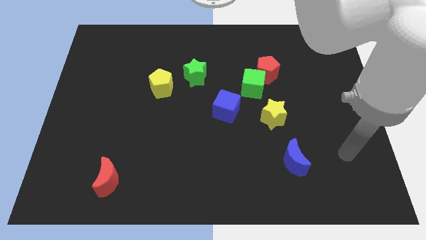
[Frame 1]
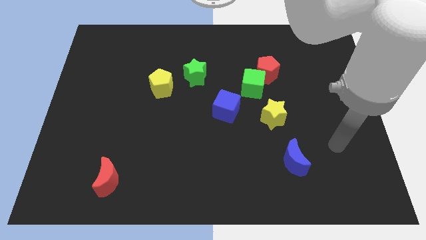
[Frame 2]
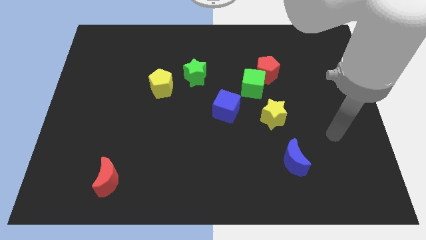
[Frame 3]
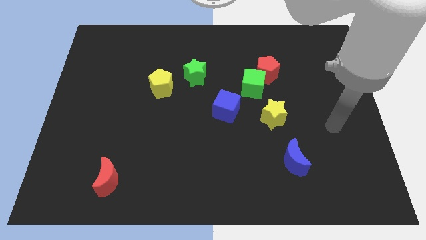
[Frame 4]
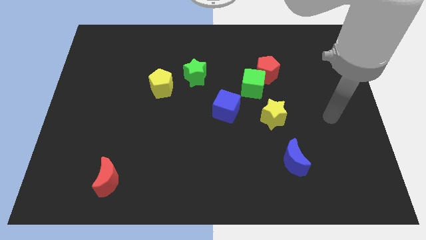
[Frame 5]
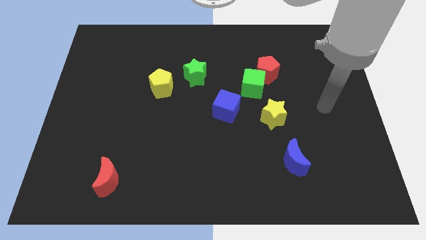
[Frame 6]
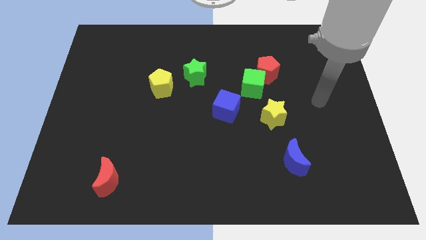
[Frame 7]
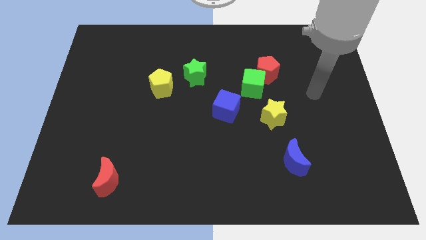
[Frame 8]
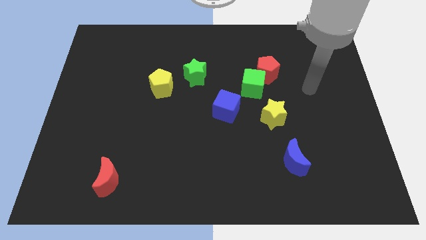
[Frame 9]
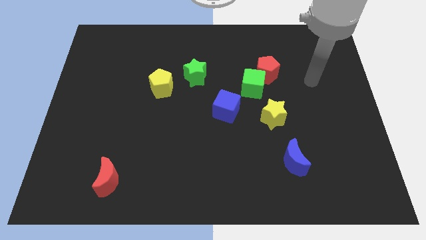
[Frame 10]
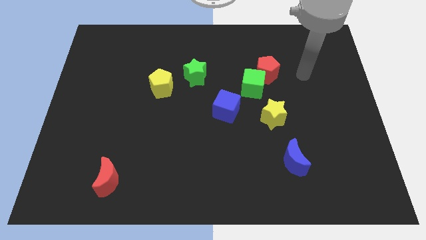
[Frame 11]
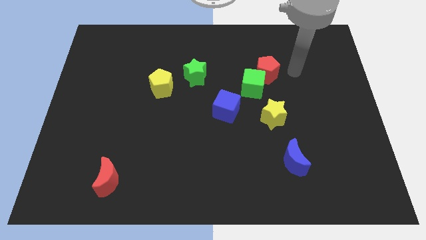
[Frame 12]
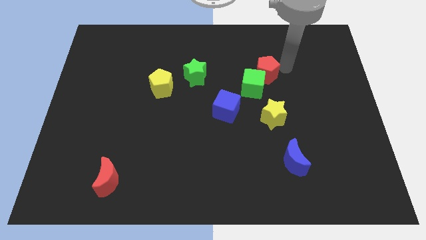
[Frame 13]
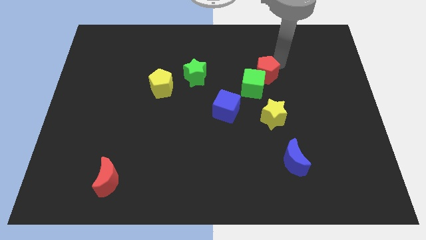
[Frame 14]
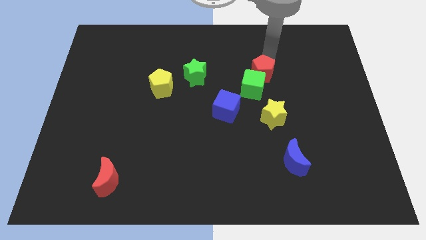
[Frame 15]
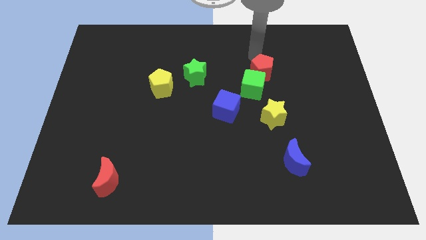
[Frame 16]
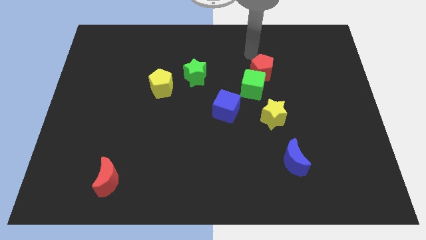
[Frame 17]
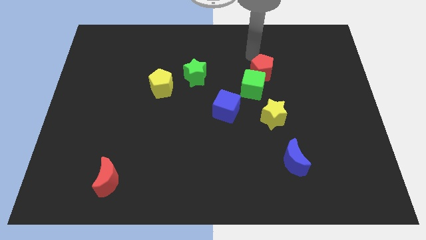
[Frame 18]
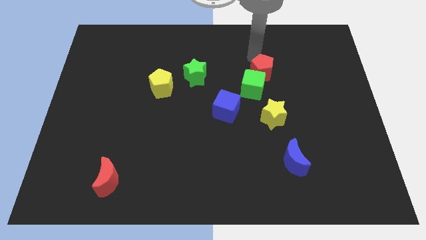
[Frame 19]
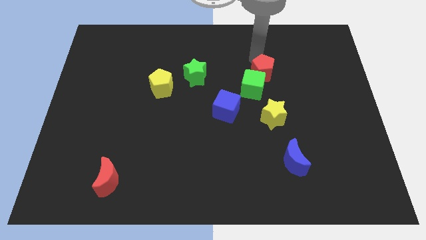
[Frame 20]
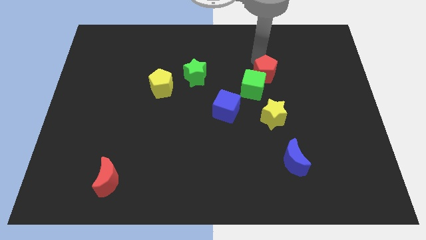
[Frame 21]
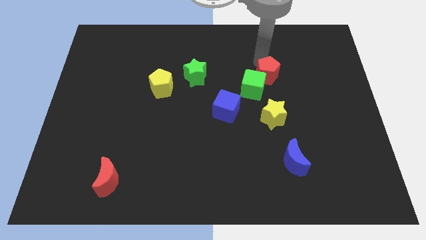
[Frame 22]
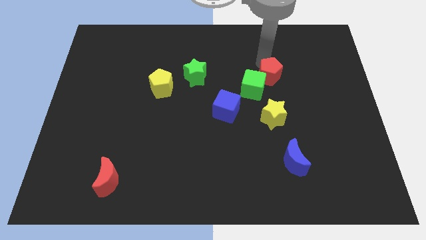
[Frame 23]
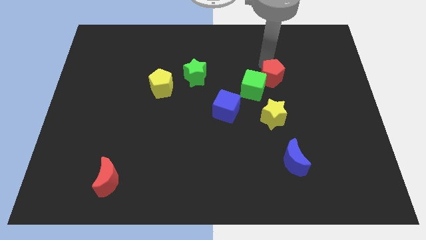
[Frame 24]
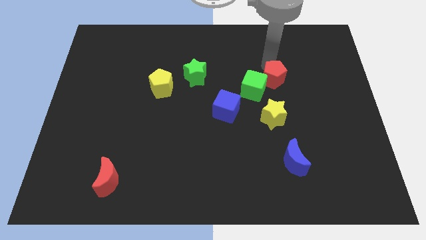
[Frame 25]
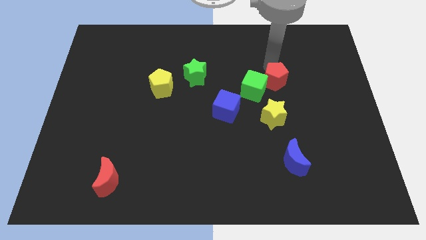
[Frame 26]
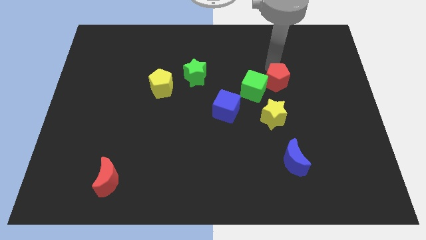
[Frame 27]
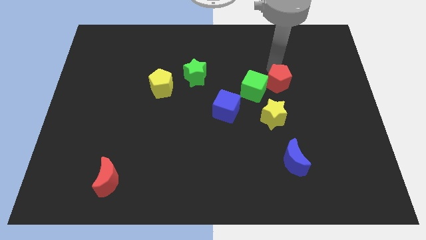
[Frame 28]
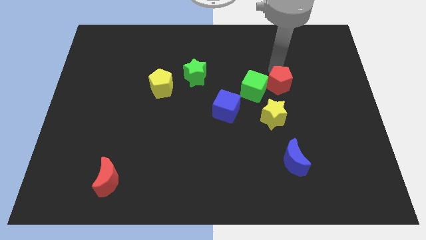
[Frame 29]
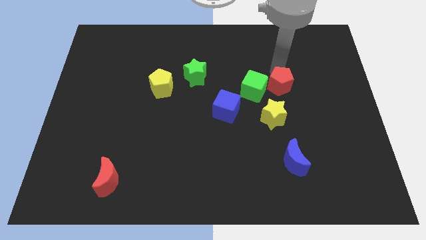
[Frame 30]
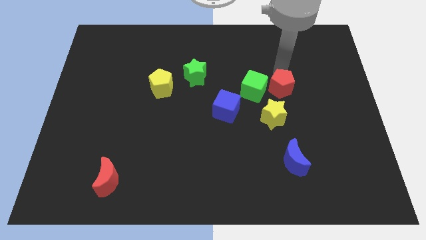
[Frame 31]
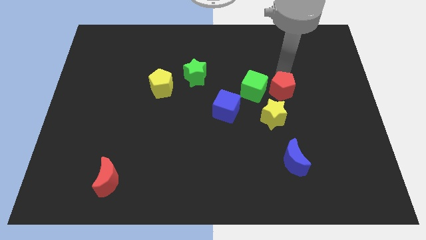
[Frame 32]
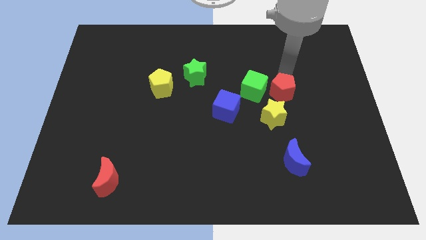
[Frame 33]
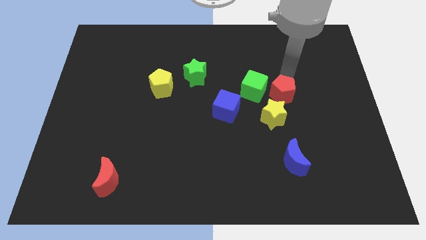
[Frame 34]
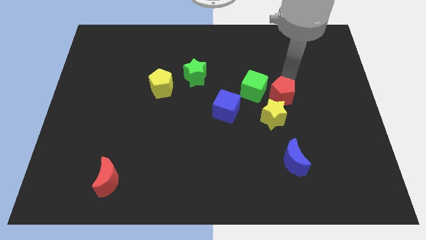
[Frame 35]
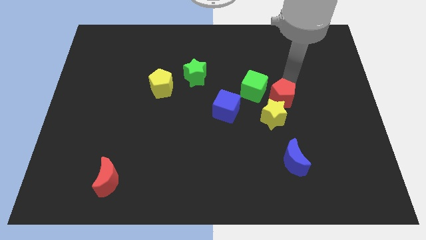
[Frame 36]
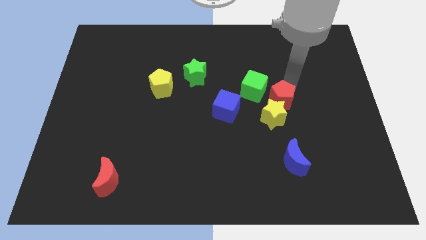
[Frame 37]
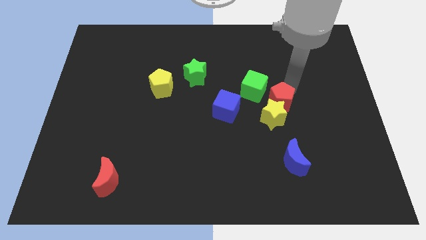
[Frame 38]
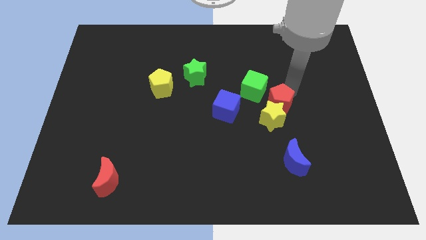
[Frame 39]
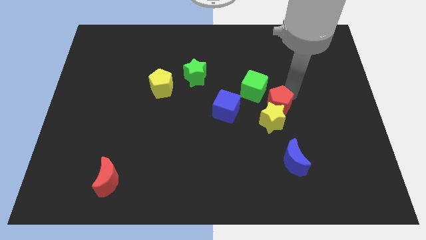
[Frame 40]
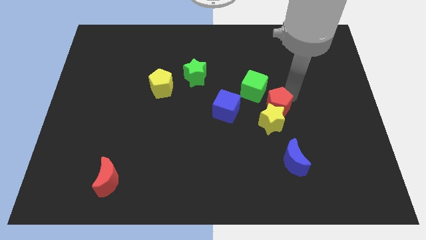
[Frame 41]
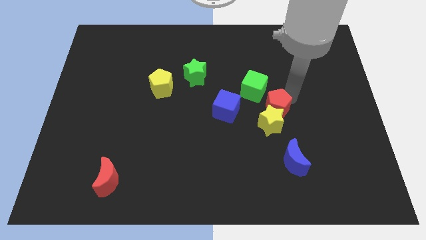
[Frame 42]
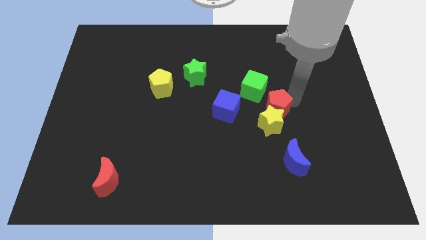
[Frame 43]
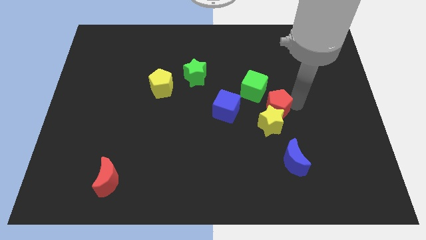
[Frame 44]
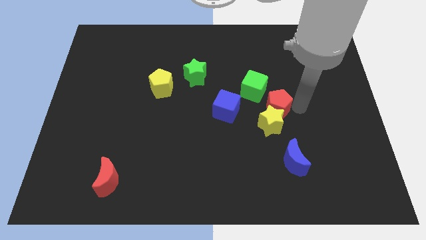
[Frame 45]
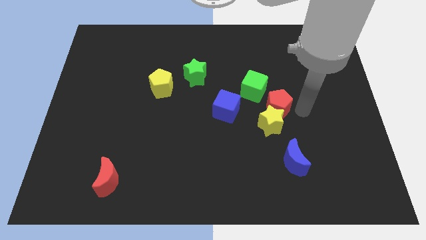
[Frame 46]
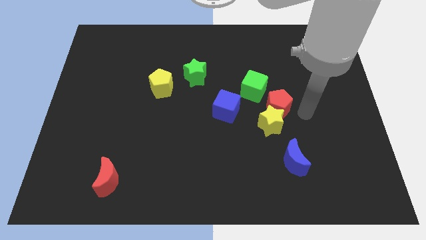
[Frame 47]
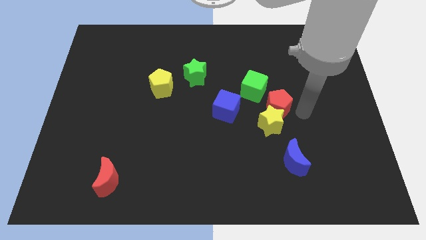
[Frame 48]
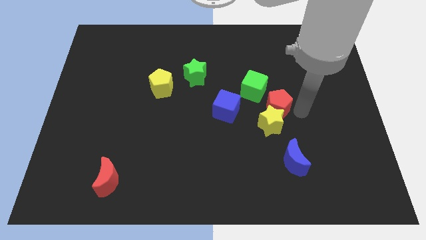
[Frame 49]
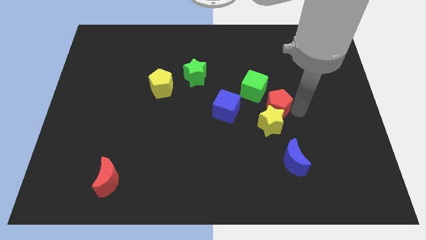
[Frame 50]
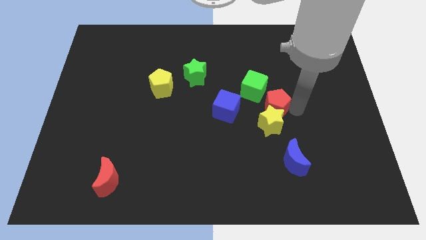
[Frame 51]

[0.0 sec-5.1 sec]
slide the red pentagon to the bottom of the green cube

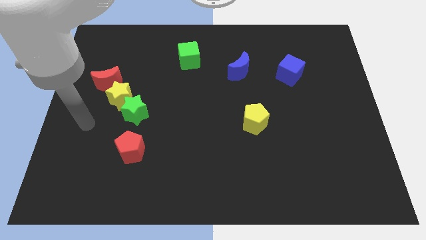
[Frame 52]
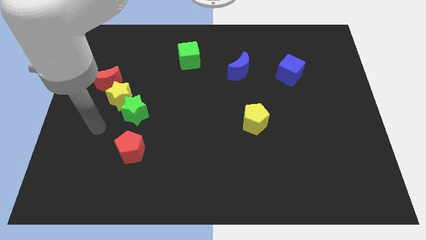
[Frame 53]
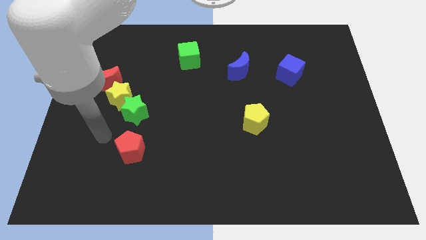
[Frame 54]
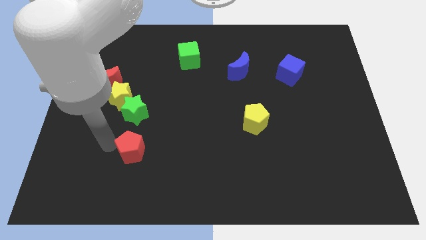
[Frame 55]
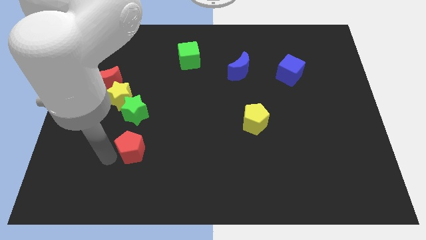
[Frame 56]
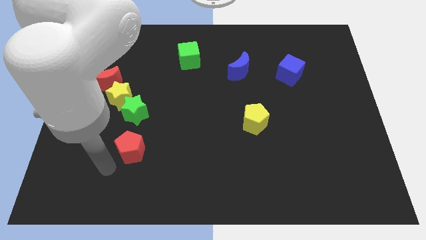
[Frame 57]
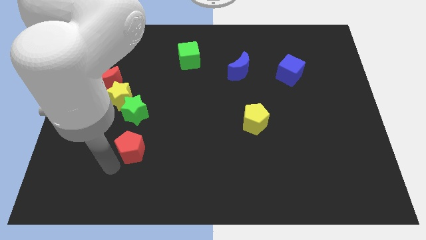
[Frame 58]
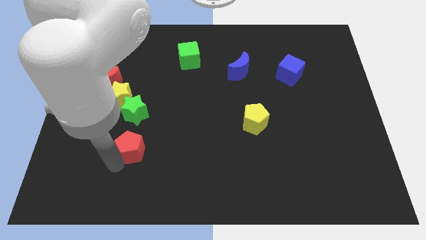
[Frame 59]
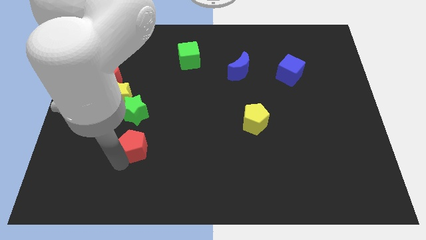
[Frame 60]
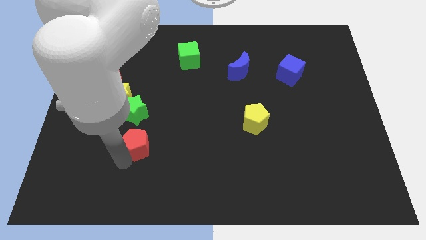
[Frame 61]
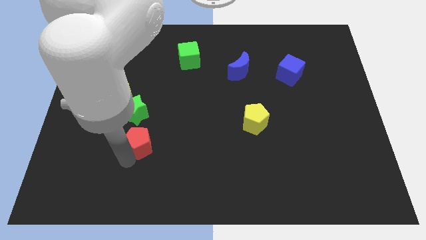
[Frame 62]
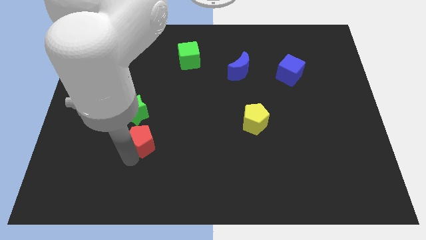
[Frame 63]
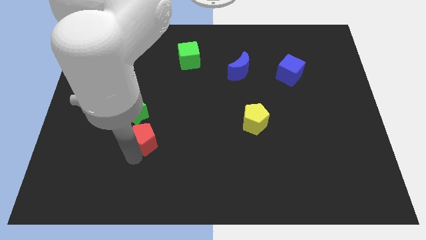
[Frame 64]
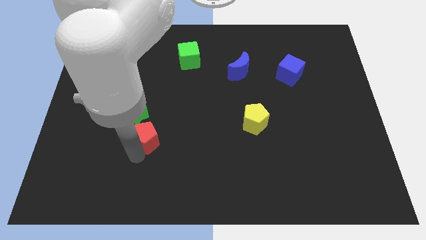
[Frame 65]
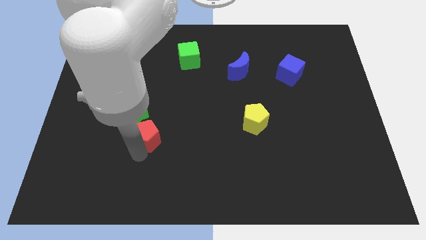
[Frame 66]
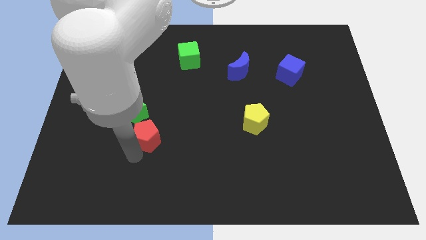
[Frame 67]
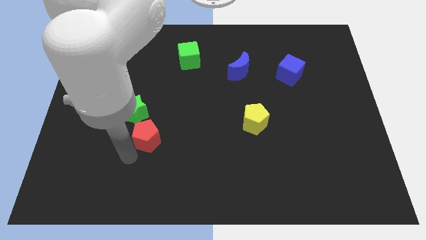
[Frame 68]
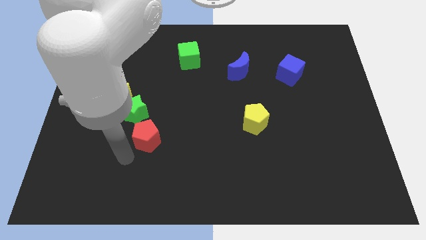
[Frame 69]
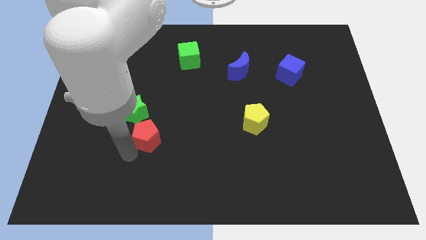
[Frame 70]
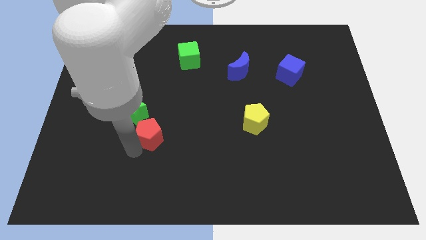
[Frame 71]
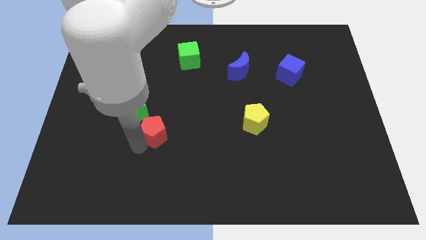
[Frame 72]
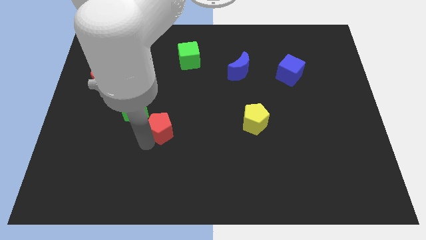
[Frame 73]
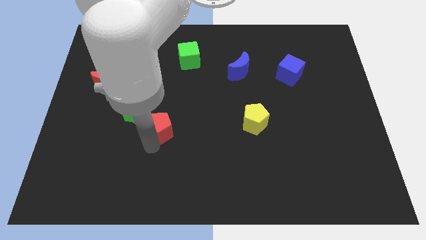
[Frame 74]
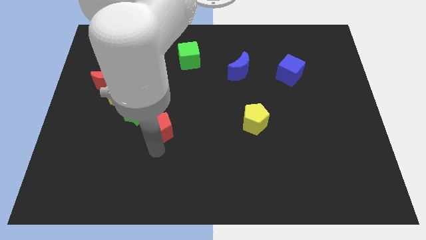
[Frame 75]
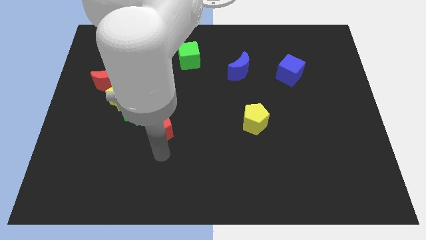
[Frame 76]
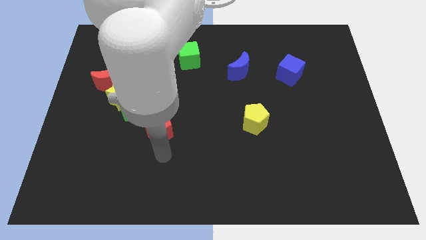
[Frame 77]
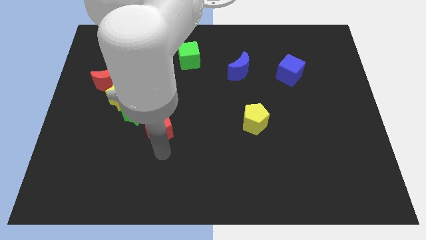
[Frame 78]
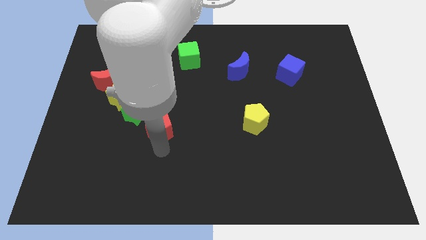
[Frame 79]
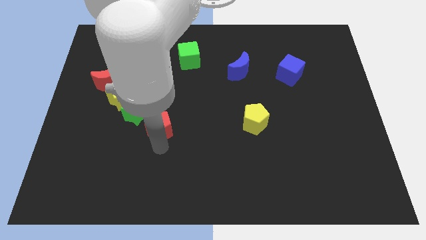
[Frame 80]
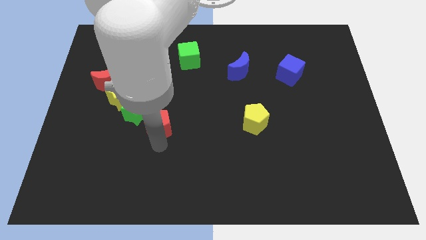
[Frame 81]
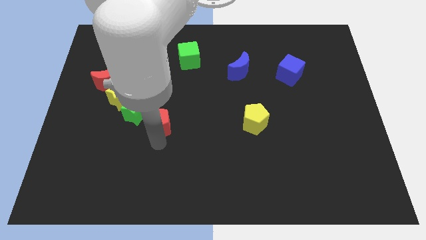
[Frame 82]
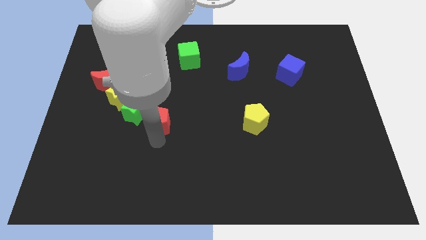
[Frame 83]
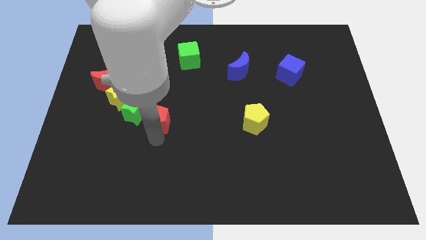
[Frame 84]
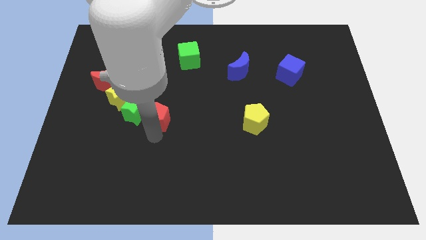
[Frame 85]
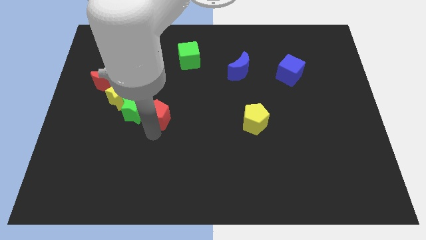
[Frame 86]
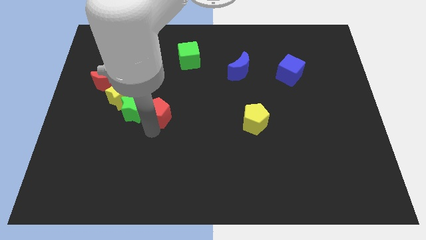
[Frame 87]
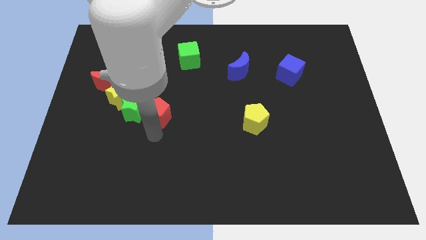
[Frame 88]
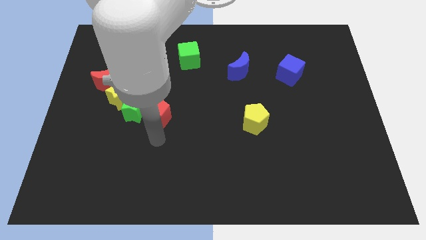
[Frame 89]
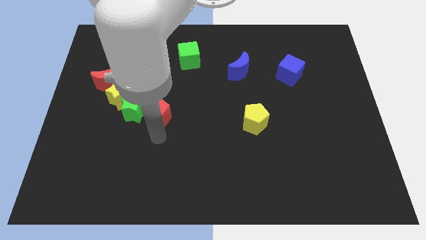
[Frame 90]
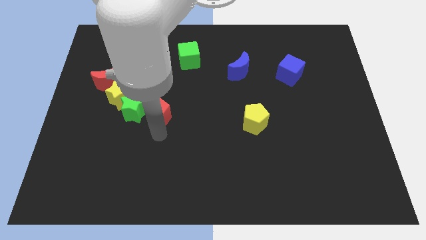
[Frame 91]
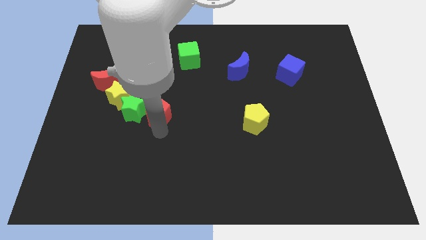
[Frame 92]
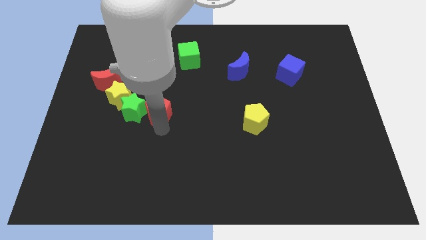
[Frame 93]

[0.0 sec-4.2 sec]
put the red pentagon to the top right of the green star
